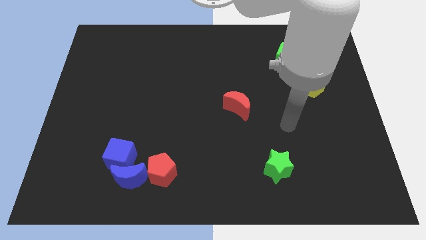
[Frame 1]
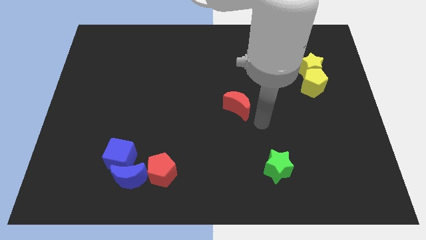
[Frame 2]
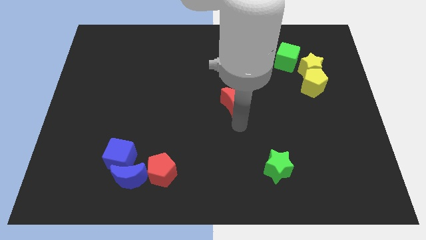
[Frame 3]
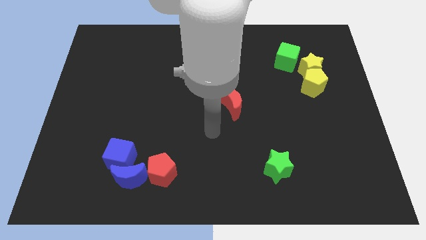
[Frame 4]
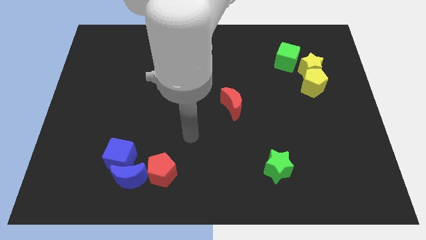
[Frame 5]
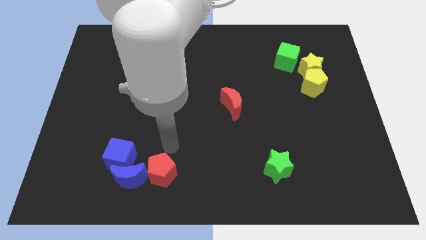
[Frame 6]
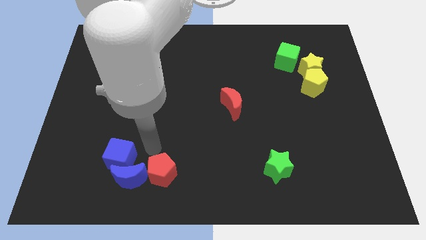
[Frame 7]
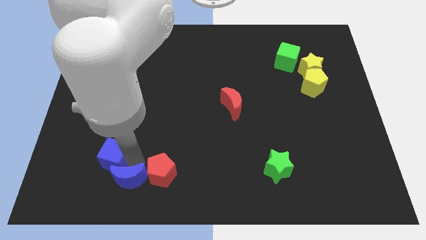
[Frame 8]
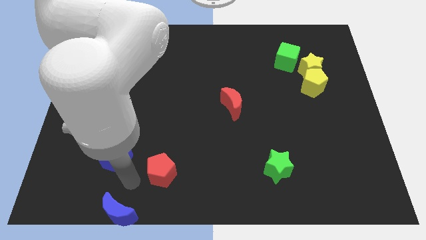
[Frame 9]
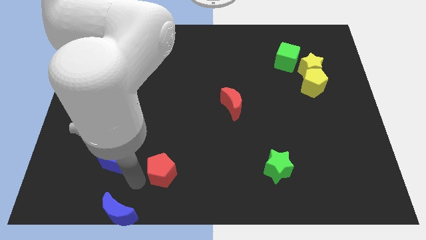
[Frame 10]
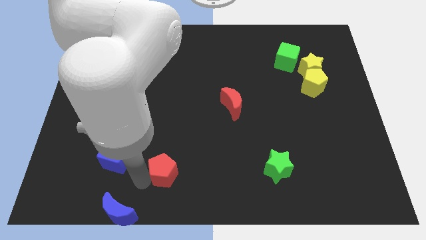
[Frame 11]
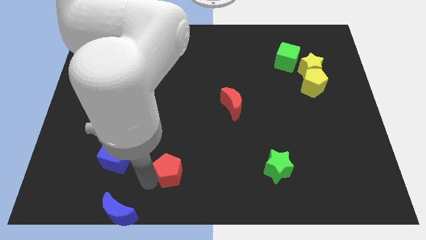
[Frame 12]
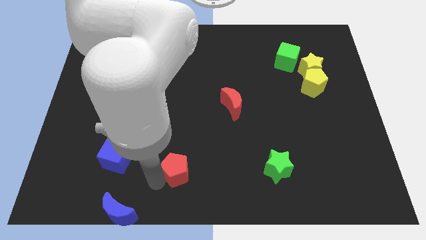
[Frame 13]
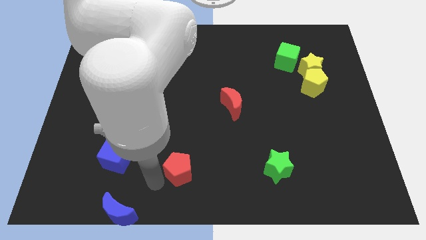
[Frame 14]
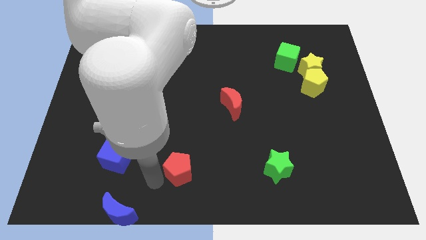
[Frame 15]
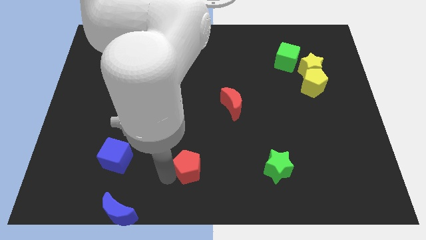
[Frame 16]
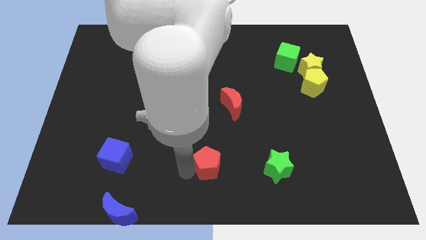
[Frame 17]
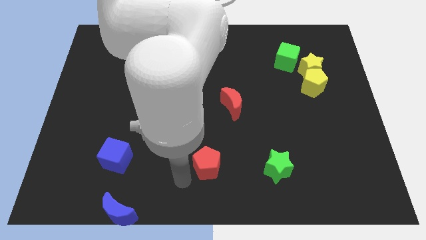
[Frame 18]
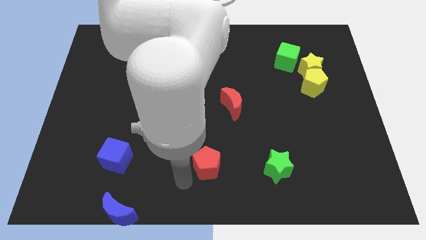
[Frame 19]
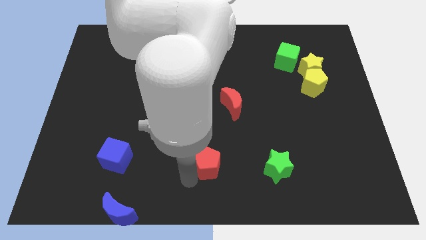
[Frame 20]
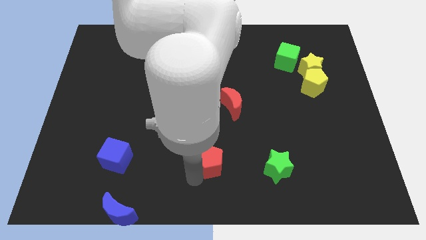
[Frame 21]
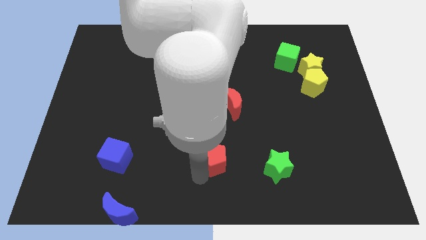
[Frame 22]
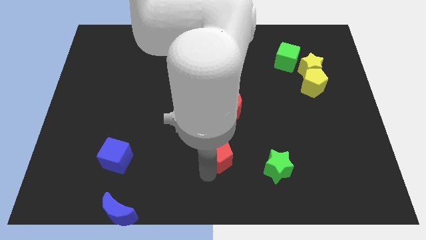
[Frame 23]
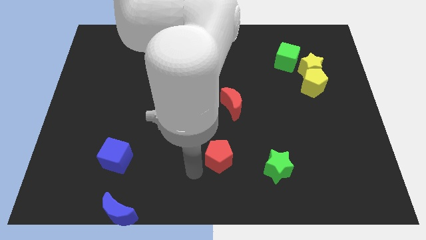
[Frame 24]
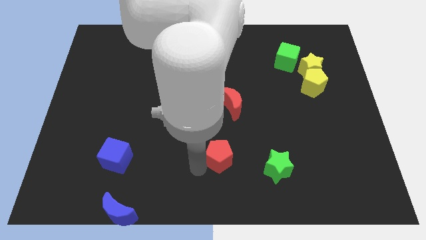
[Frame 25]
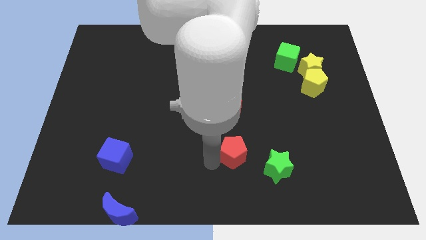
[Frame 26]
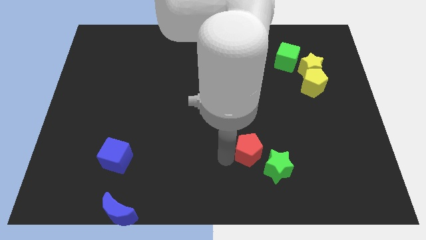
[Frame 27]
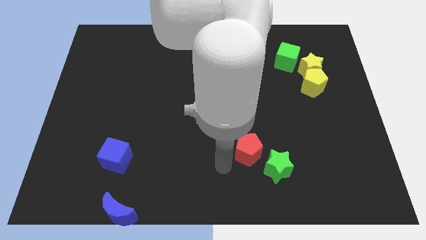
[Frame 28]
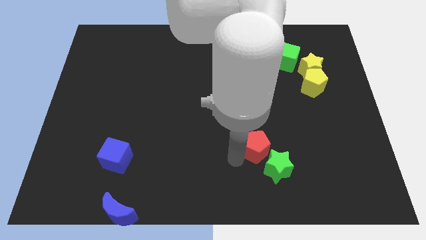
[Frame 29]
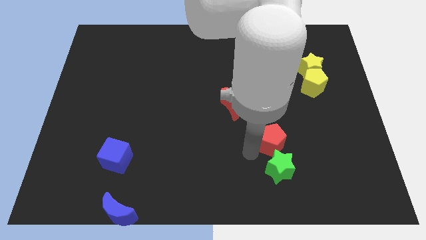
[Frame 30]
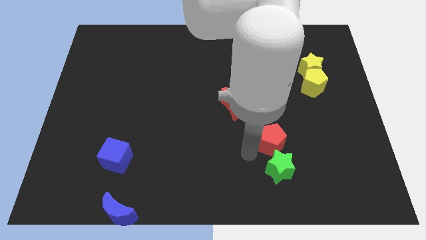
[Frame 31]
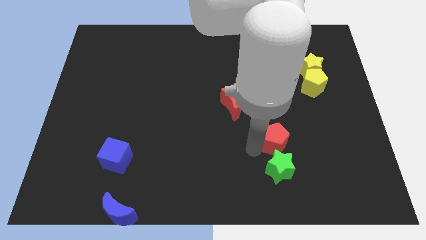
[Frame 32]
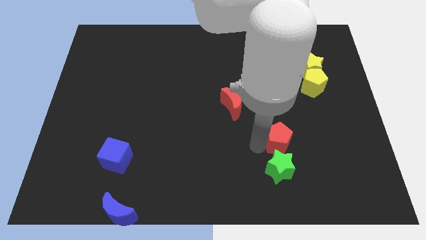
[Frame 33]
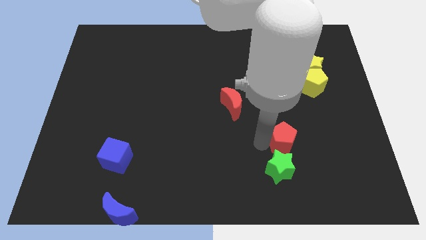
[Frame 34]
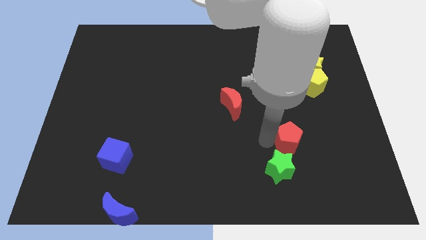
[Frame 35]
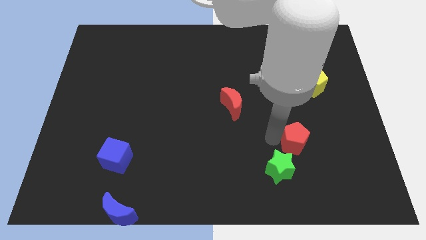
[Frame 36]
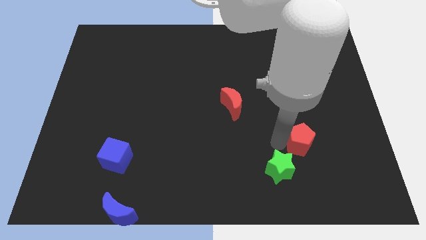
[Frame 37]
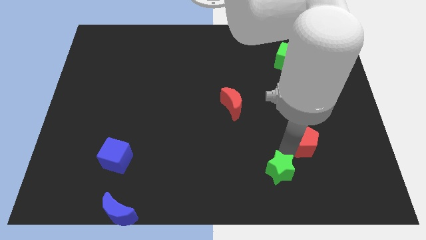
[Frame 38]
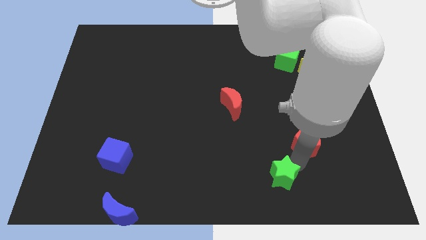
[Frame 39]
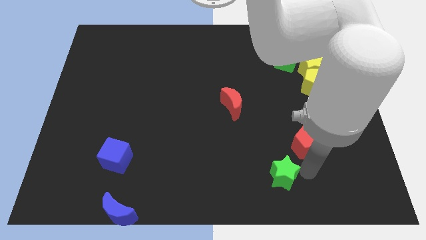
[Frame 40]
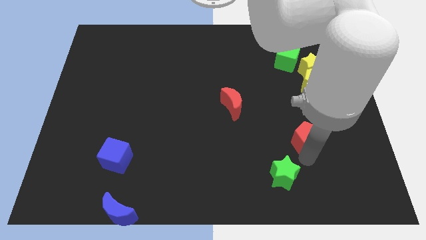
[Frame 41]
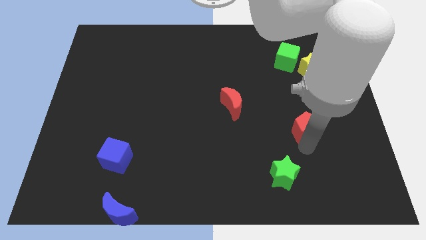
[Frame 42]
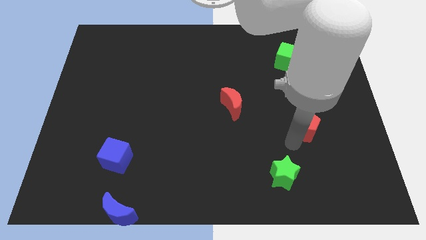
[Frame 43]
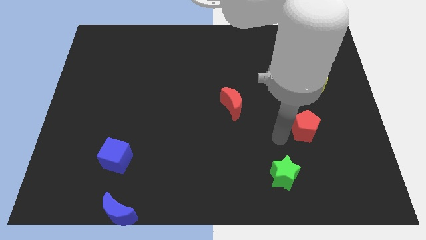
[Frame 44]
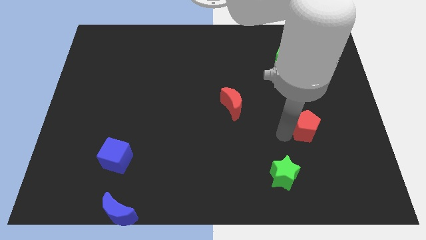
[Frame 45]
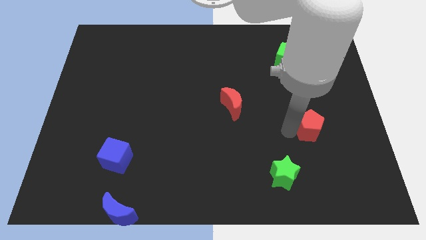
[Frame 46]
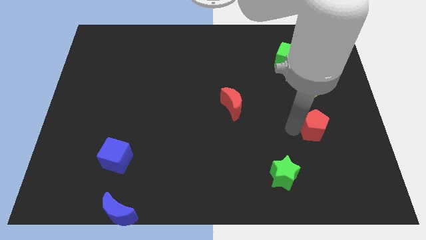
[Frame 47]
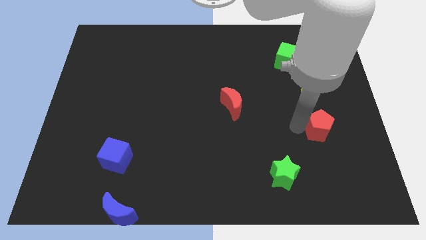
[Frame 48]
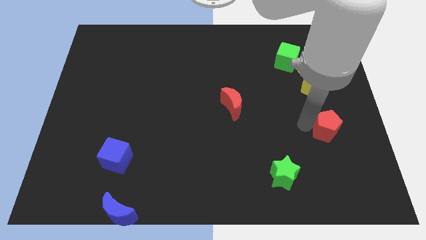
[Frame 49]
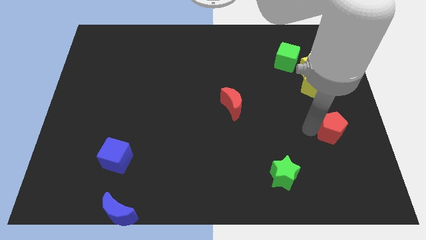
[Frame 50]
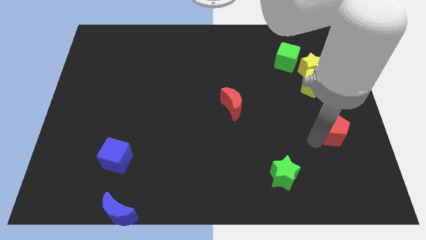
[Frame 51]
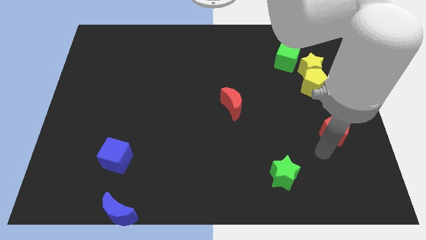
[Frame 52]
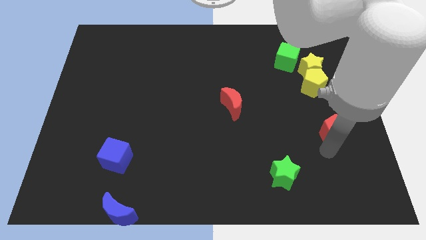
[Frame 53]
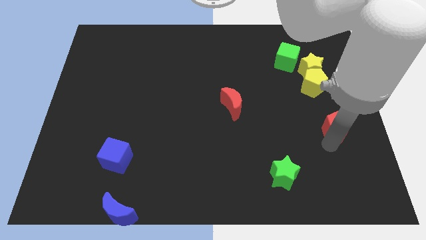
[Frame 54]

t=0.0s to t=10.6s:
move the red pentagon to the center right

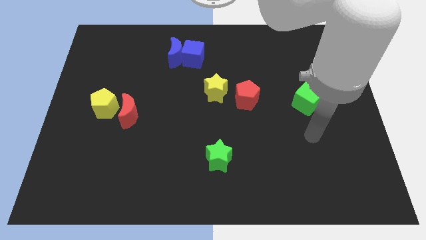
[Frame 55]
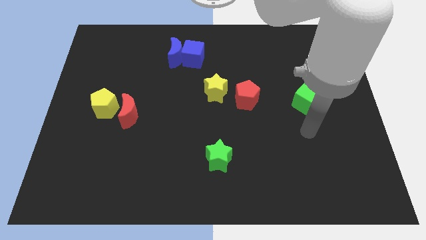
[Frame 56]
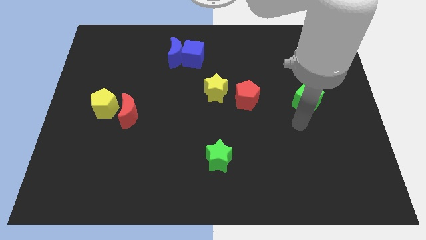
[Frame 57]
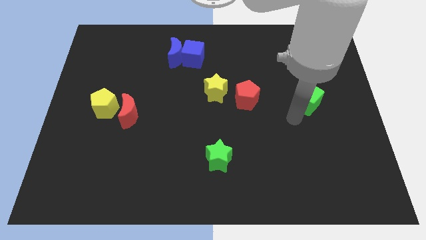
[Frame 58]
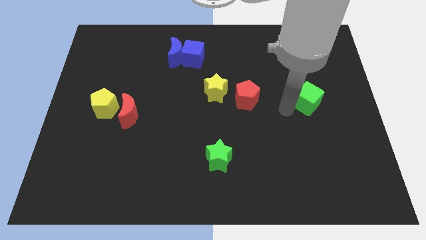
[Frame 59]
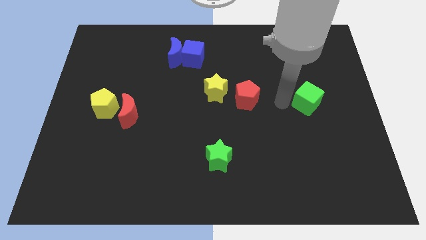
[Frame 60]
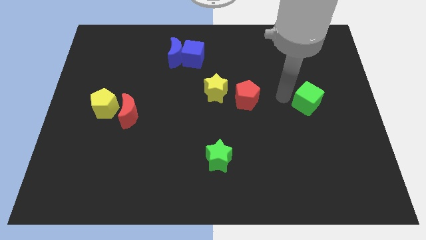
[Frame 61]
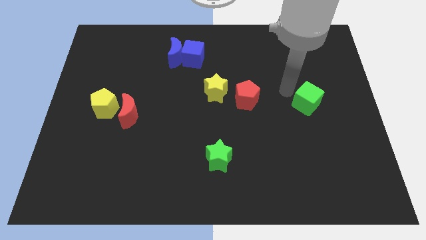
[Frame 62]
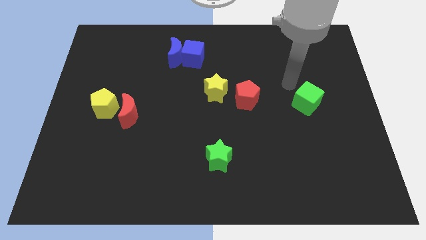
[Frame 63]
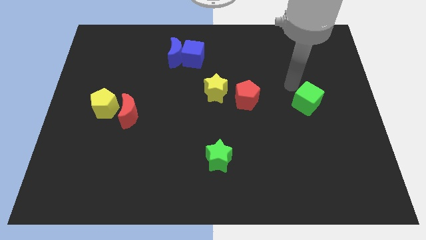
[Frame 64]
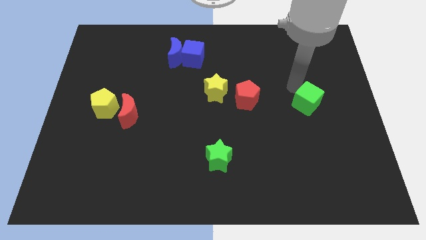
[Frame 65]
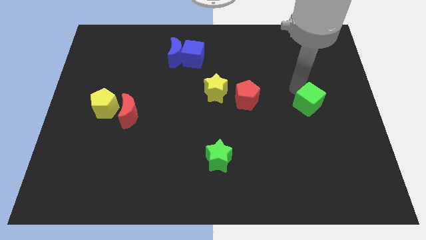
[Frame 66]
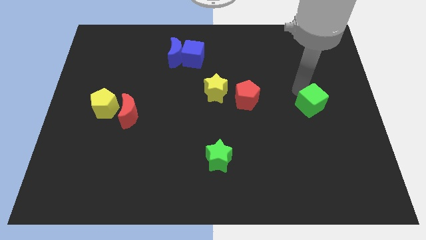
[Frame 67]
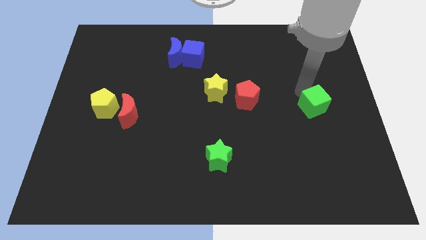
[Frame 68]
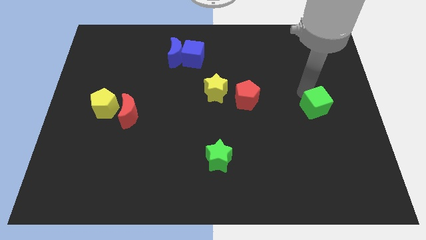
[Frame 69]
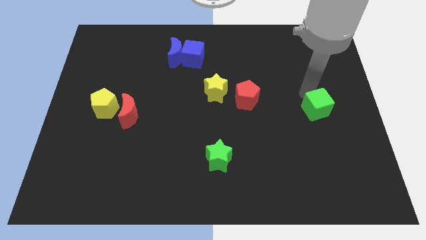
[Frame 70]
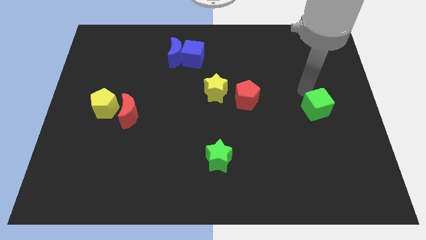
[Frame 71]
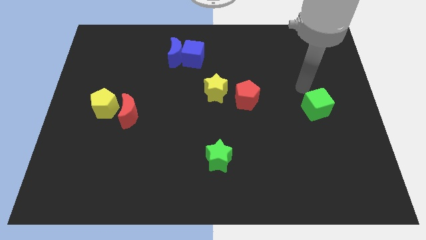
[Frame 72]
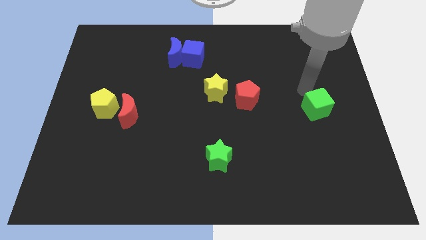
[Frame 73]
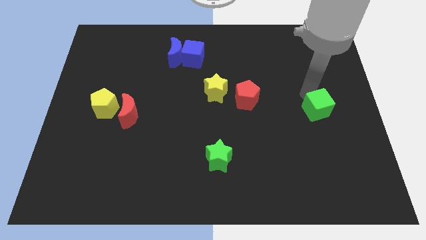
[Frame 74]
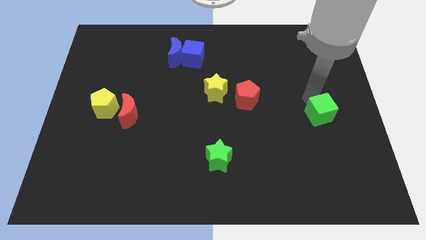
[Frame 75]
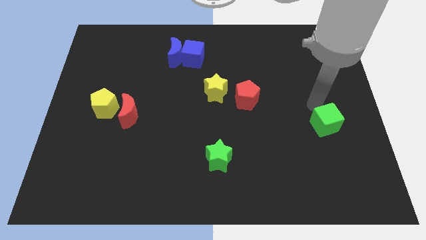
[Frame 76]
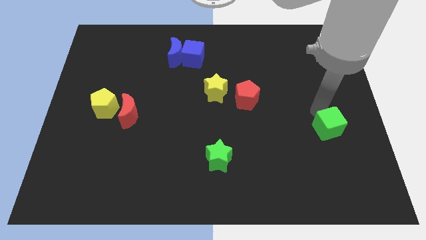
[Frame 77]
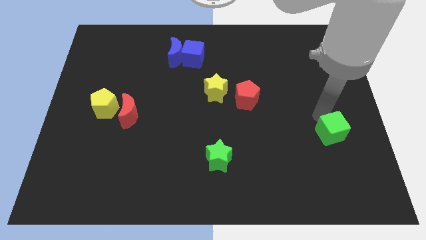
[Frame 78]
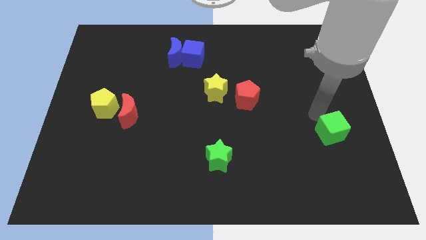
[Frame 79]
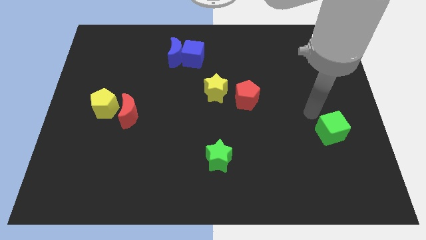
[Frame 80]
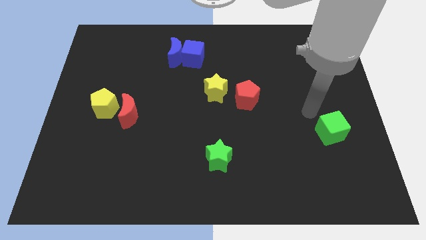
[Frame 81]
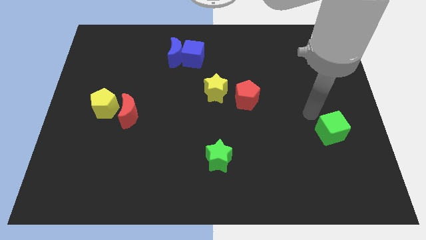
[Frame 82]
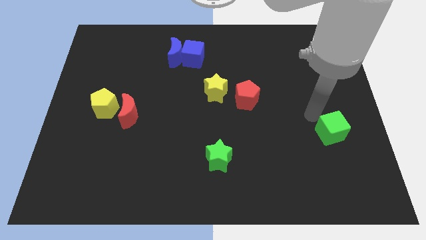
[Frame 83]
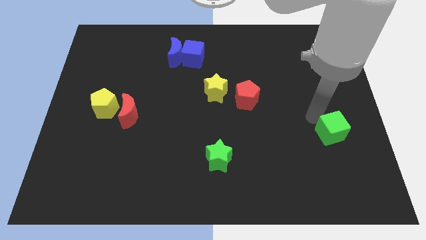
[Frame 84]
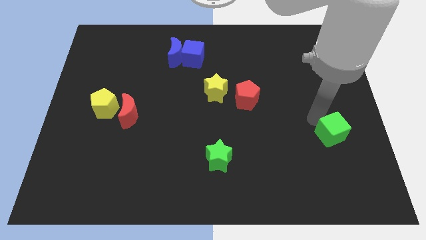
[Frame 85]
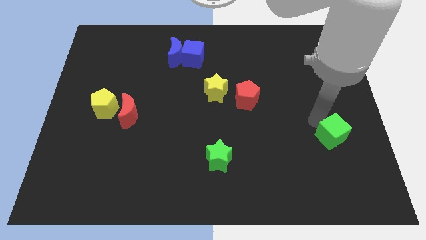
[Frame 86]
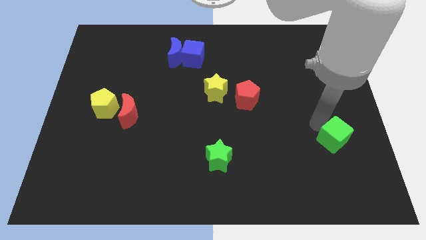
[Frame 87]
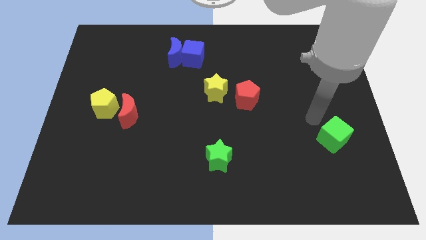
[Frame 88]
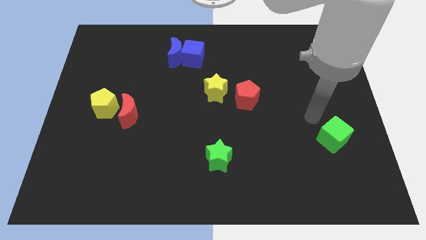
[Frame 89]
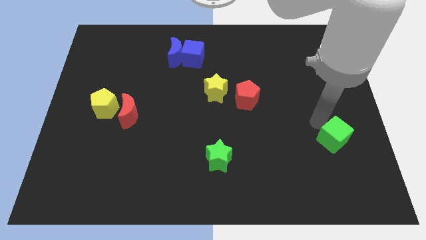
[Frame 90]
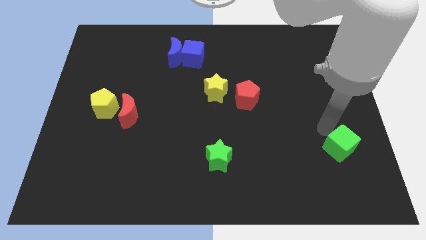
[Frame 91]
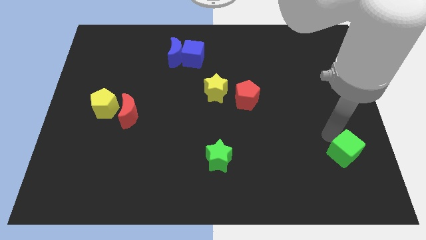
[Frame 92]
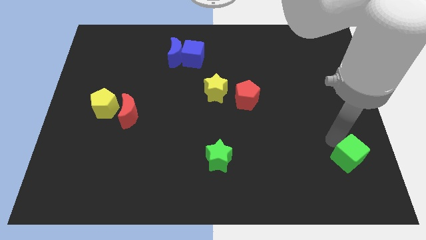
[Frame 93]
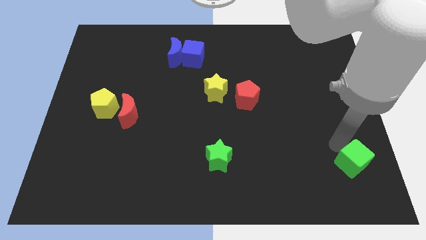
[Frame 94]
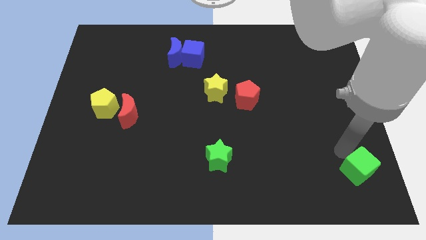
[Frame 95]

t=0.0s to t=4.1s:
move the green cube to the bottom right of the board
